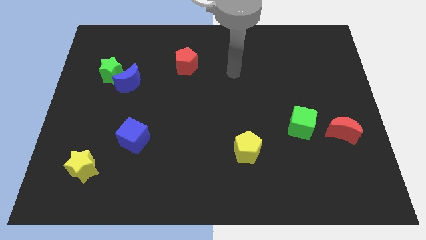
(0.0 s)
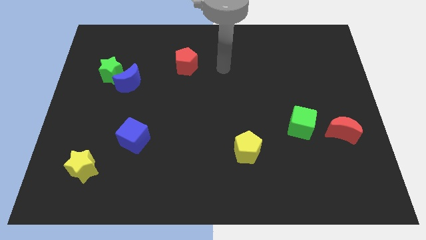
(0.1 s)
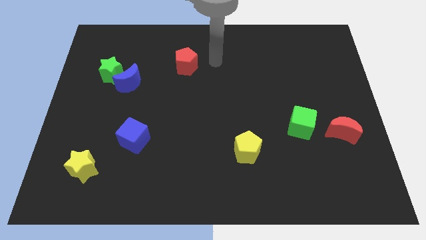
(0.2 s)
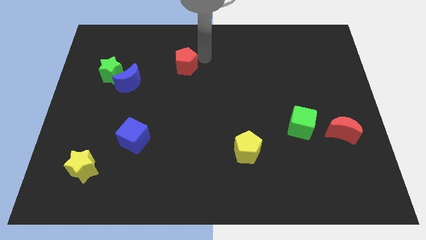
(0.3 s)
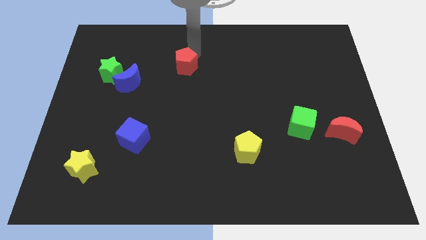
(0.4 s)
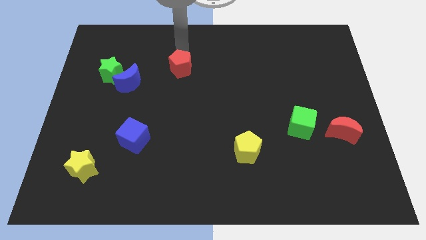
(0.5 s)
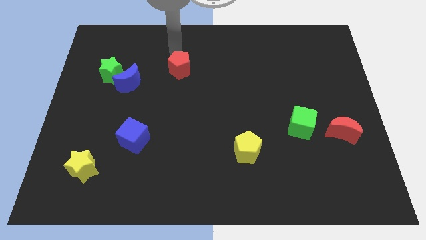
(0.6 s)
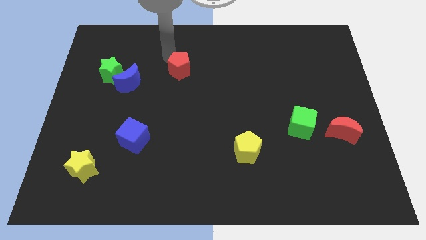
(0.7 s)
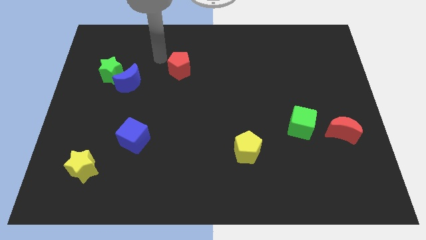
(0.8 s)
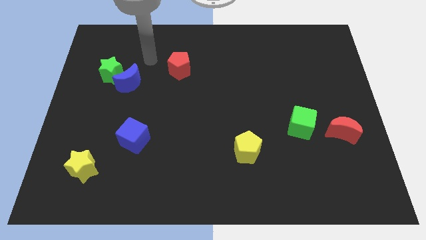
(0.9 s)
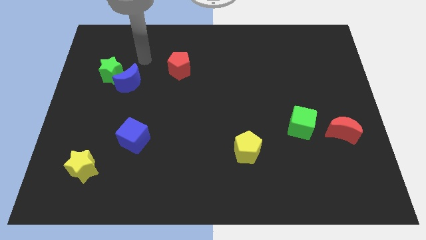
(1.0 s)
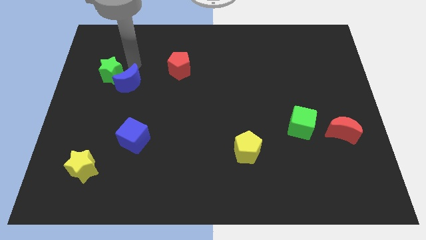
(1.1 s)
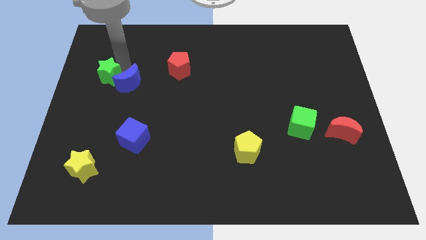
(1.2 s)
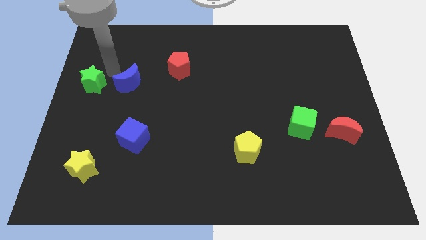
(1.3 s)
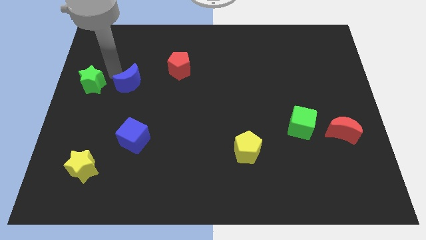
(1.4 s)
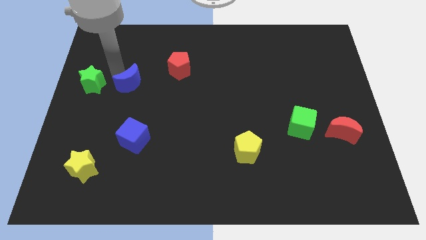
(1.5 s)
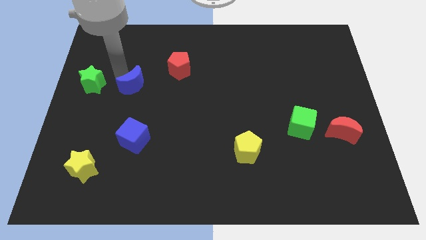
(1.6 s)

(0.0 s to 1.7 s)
pull the blue moon apart from the green star

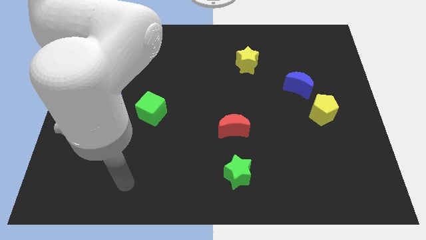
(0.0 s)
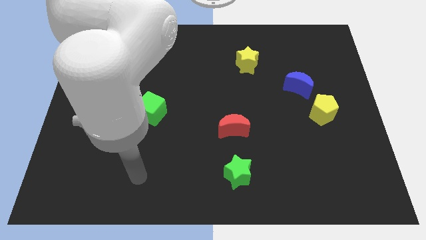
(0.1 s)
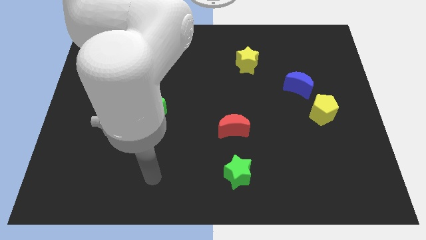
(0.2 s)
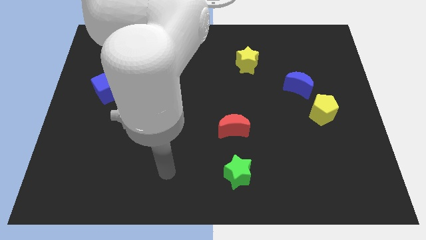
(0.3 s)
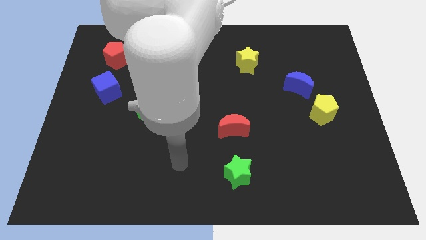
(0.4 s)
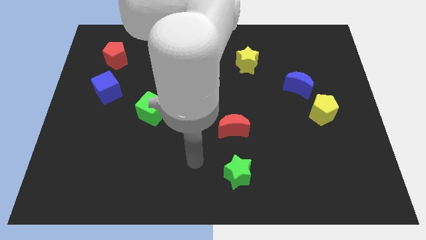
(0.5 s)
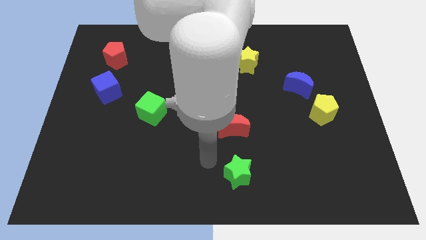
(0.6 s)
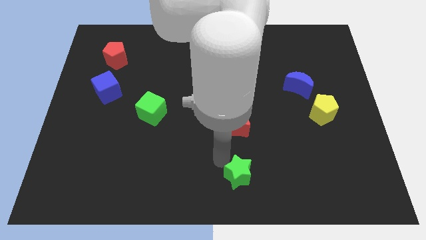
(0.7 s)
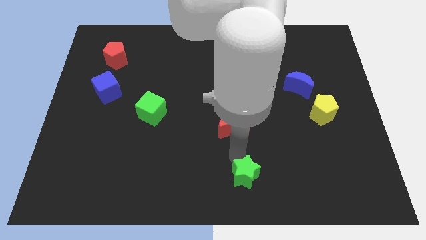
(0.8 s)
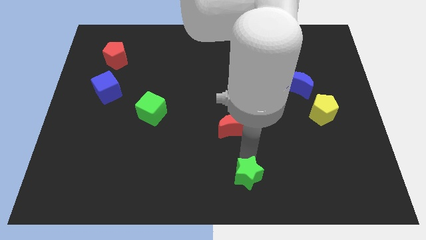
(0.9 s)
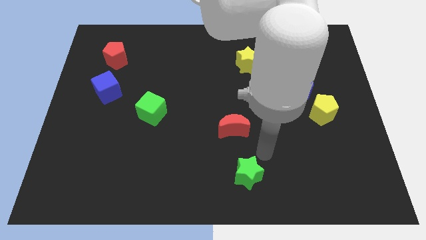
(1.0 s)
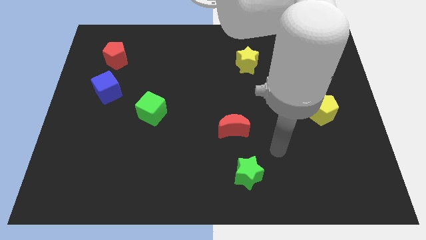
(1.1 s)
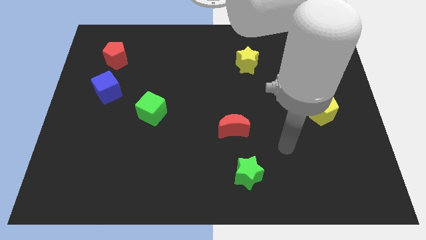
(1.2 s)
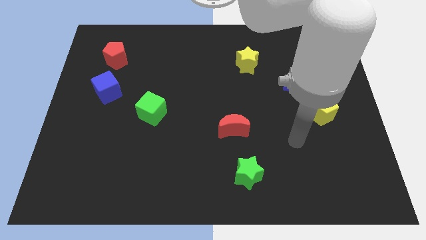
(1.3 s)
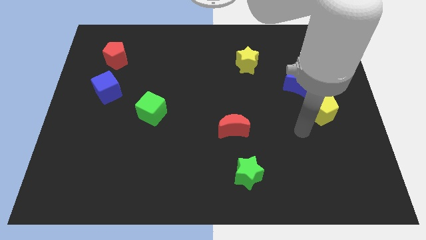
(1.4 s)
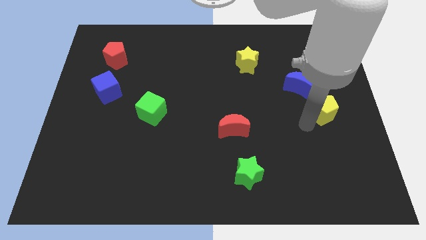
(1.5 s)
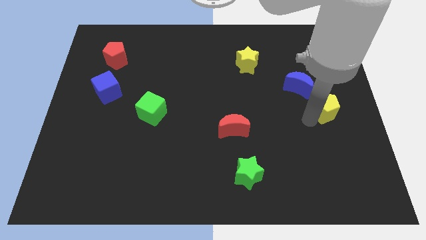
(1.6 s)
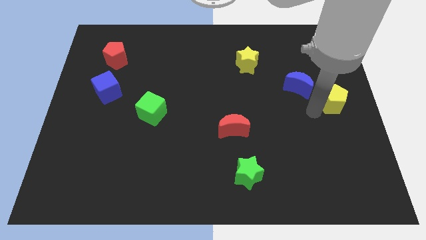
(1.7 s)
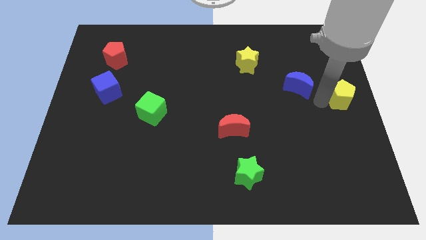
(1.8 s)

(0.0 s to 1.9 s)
move the blue moon away from the yellow pentagon

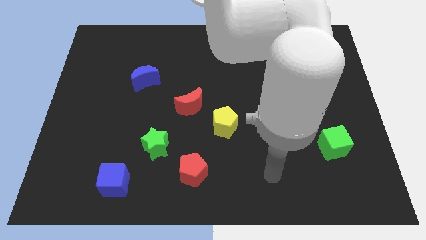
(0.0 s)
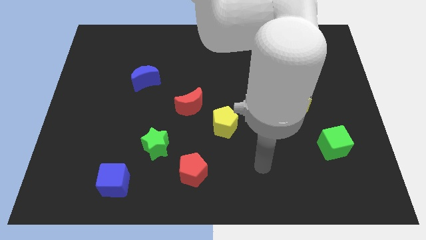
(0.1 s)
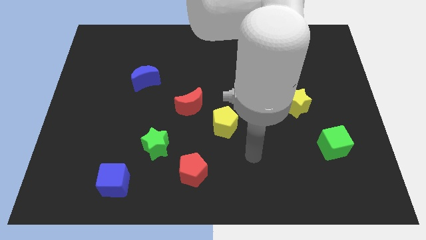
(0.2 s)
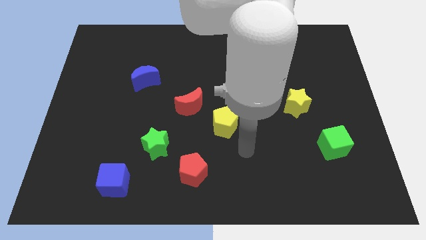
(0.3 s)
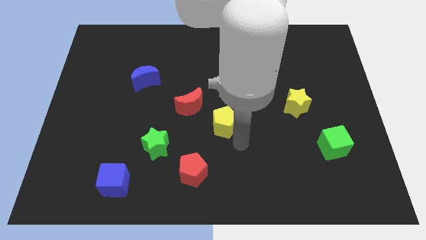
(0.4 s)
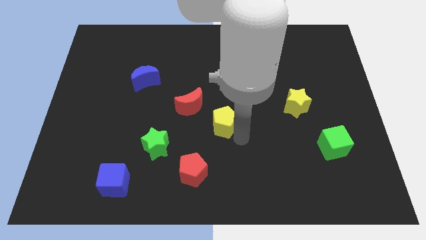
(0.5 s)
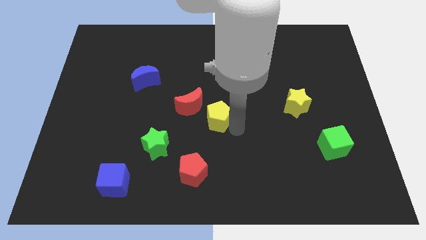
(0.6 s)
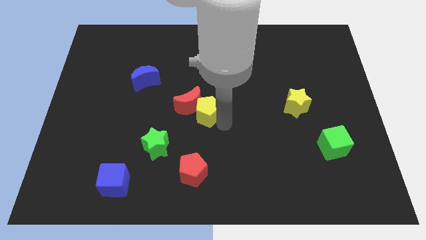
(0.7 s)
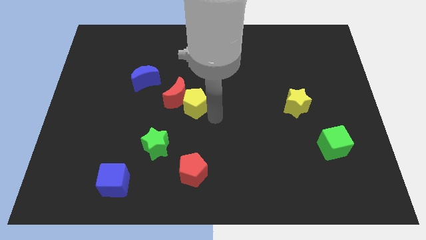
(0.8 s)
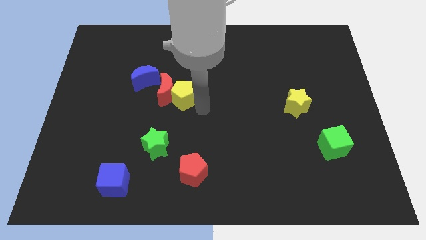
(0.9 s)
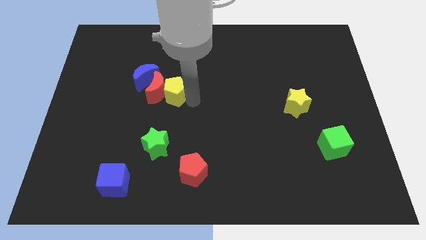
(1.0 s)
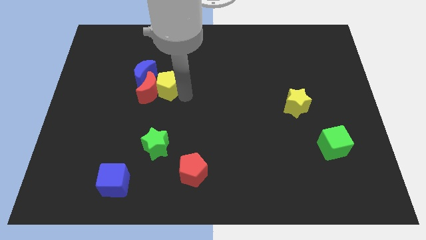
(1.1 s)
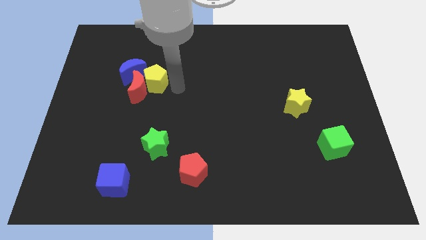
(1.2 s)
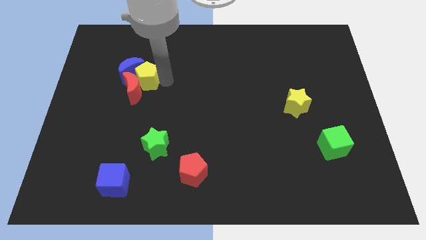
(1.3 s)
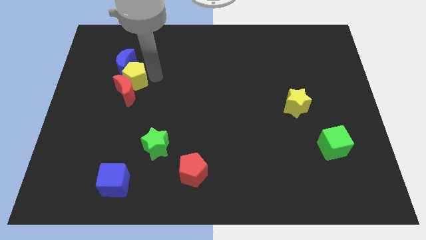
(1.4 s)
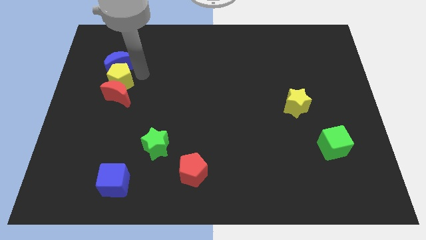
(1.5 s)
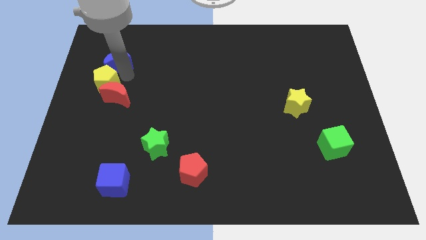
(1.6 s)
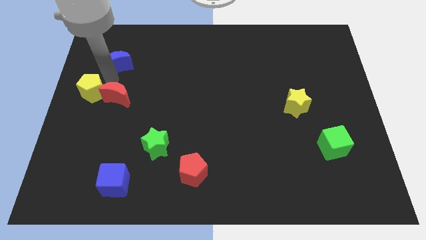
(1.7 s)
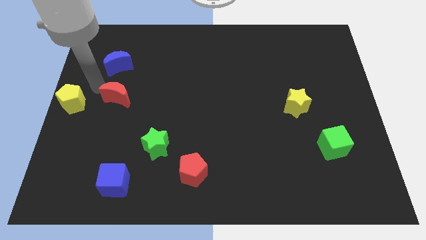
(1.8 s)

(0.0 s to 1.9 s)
move the red moon away from the yellow pentagon

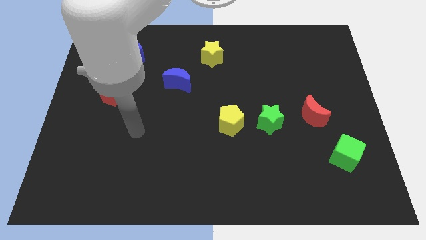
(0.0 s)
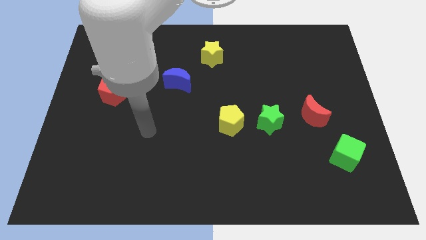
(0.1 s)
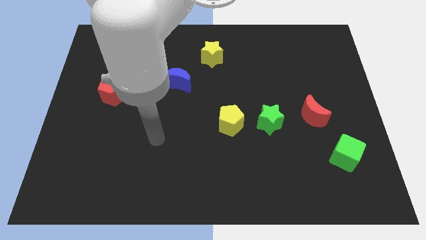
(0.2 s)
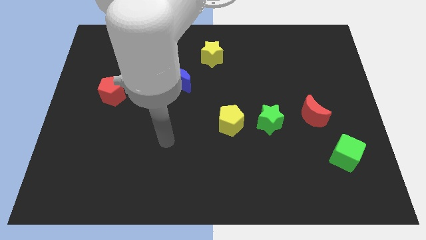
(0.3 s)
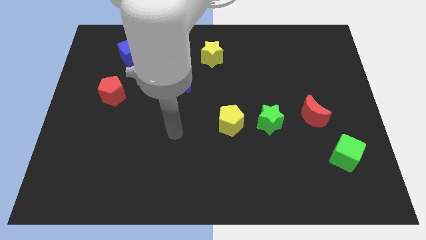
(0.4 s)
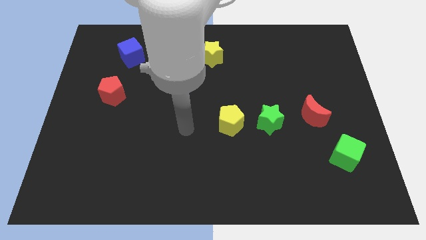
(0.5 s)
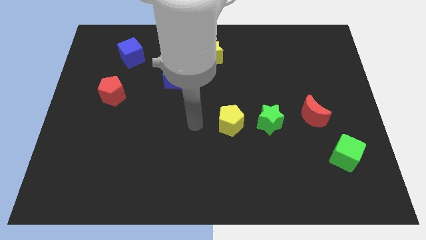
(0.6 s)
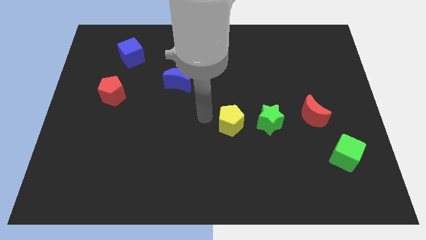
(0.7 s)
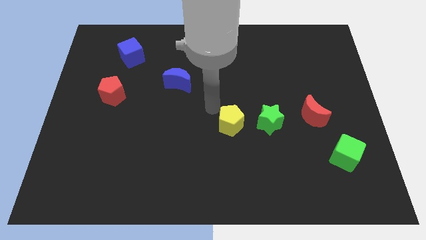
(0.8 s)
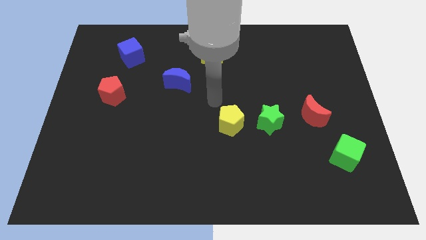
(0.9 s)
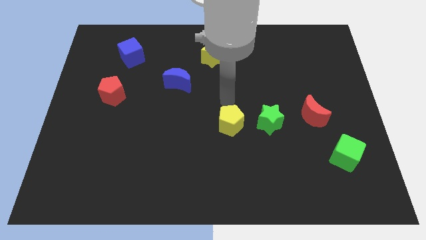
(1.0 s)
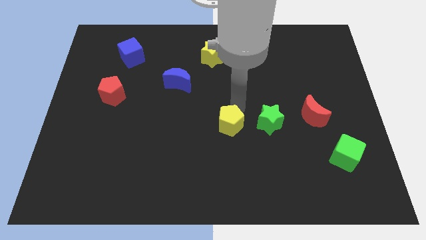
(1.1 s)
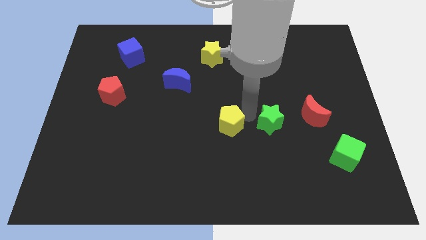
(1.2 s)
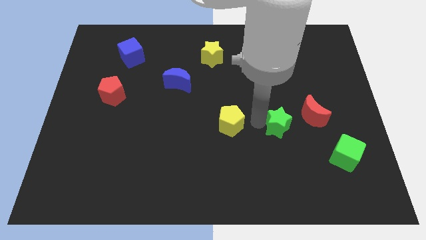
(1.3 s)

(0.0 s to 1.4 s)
pull the yellow pentagon apart from the green star

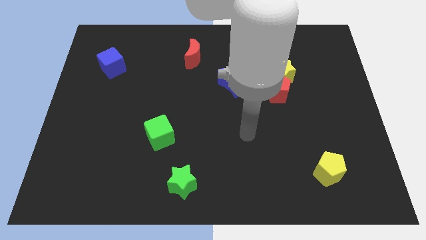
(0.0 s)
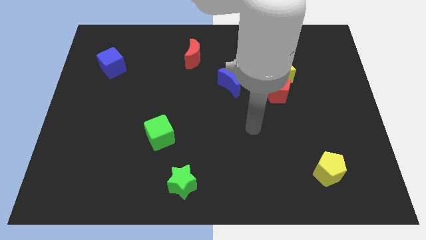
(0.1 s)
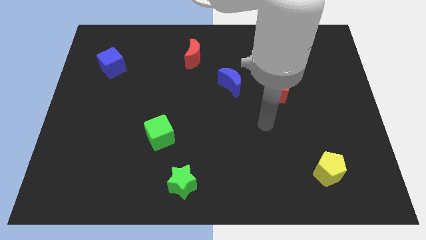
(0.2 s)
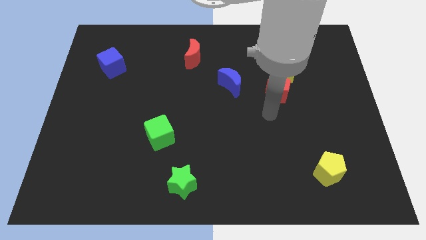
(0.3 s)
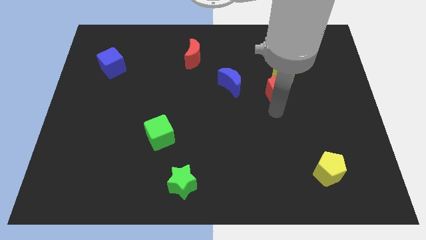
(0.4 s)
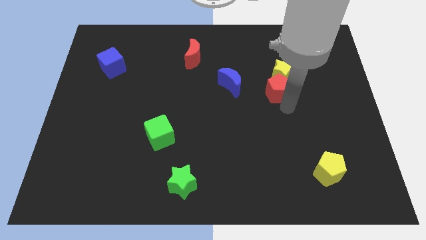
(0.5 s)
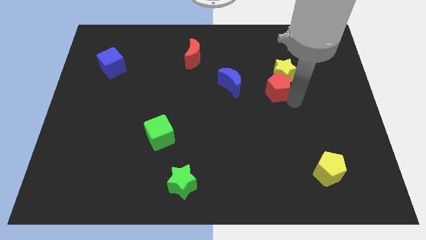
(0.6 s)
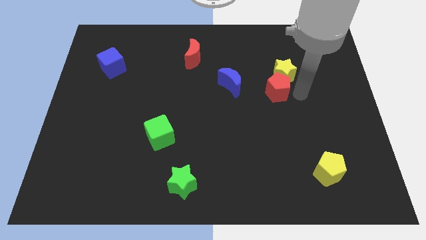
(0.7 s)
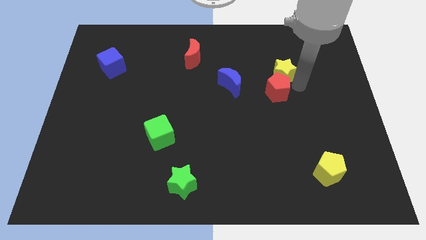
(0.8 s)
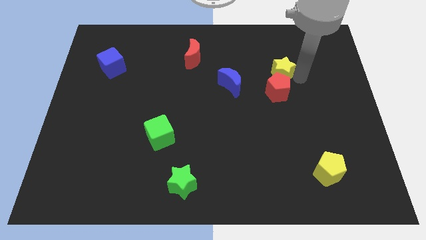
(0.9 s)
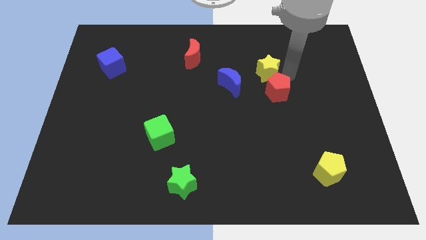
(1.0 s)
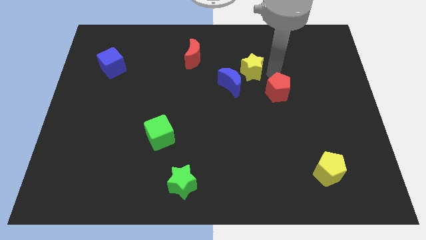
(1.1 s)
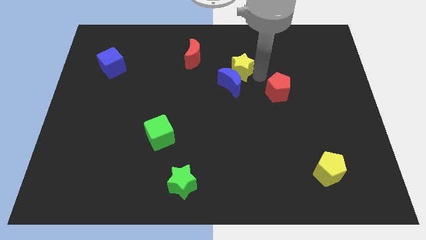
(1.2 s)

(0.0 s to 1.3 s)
move the red pentagon away from the yellow star

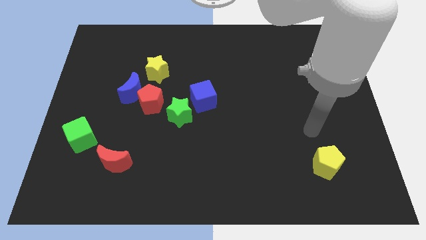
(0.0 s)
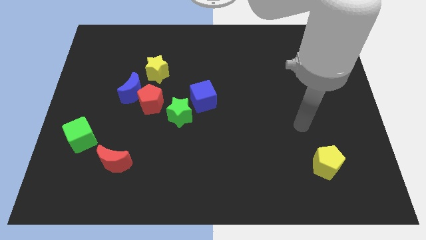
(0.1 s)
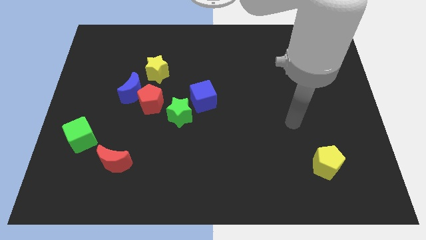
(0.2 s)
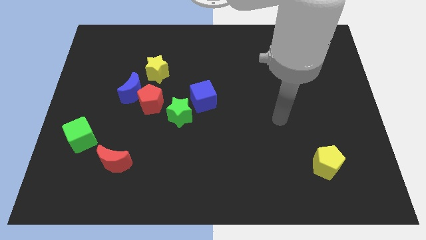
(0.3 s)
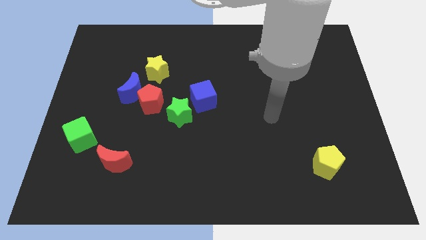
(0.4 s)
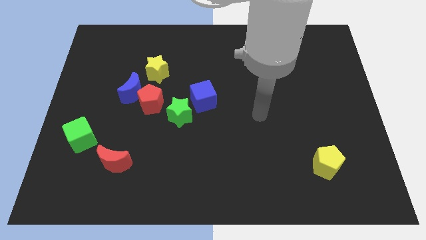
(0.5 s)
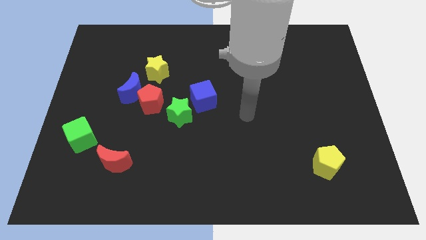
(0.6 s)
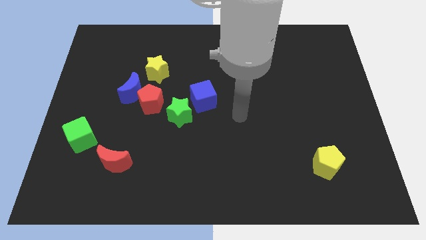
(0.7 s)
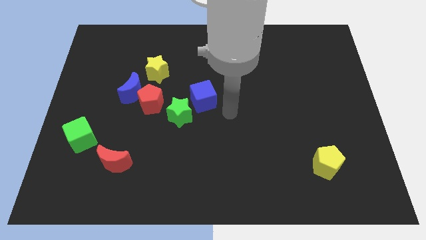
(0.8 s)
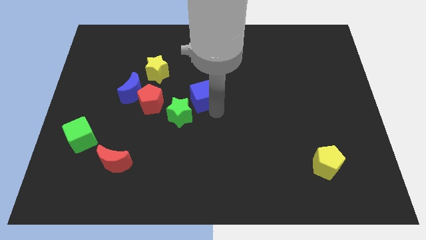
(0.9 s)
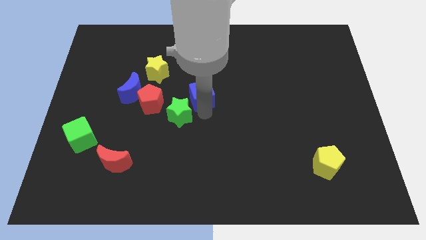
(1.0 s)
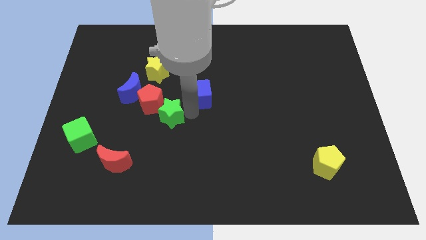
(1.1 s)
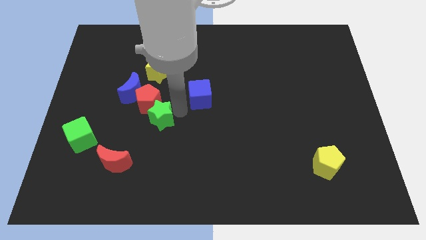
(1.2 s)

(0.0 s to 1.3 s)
pull the blue cube apart from the green star
